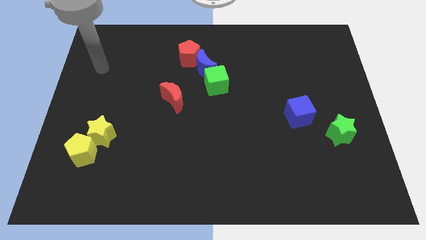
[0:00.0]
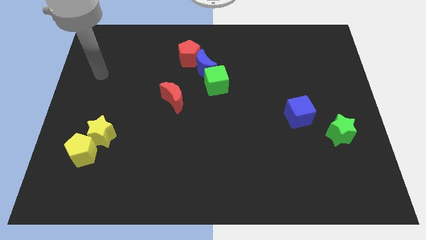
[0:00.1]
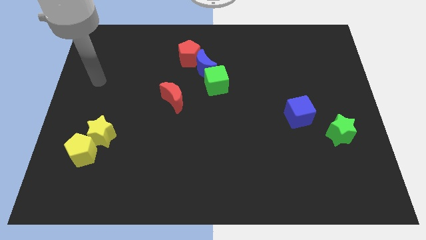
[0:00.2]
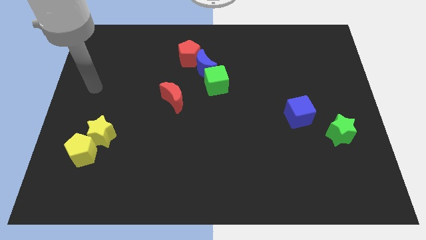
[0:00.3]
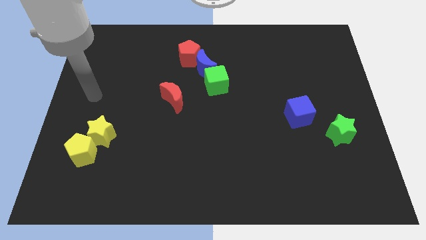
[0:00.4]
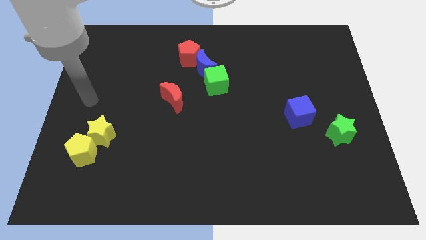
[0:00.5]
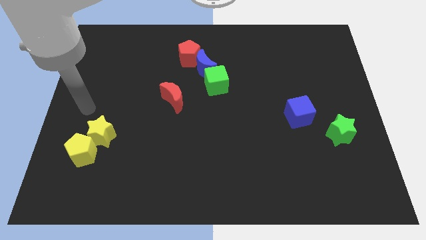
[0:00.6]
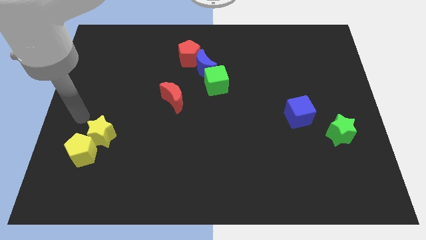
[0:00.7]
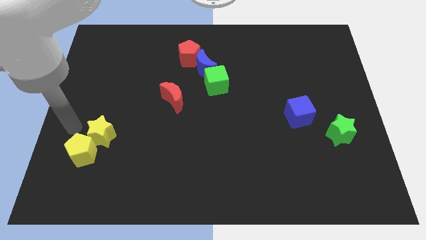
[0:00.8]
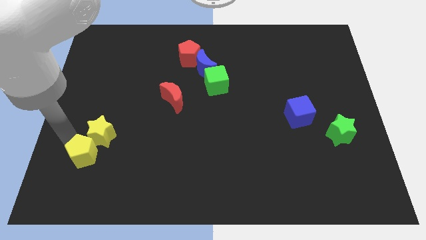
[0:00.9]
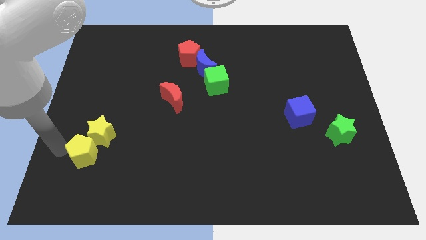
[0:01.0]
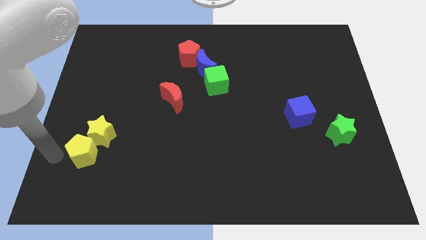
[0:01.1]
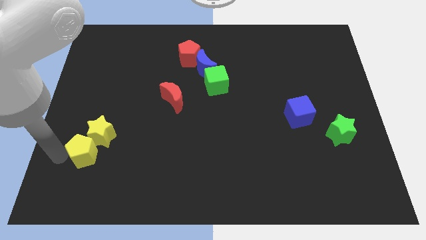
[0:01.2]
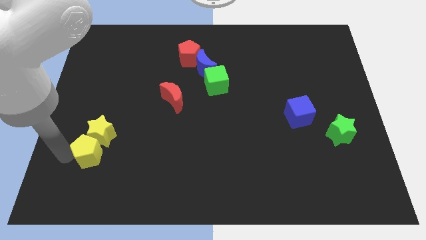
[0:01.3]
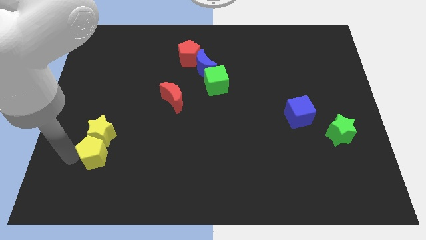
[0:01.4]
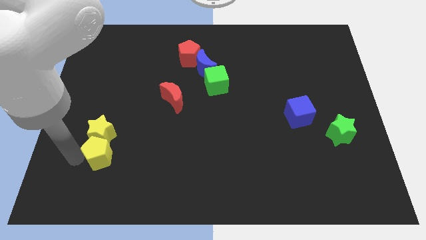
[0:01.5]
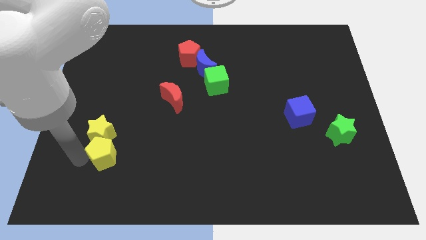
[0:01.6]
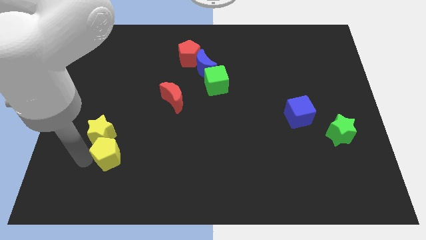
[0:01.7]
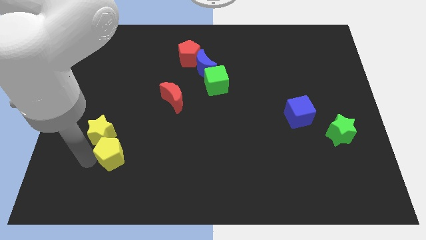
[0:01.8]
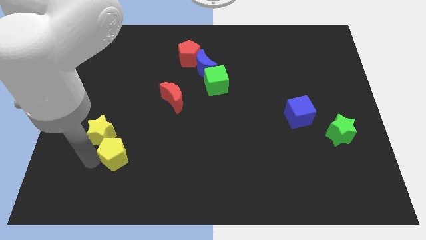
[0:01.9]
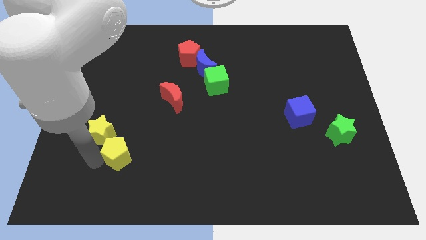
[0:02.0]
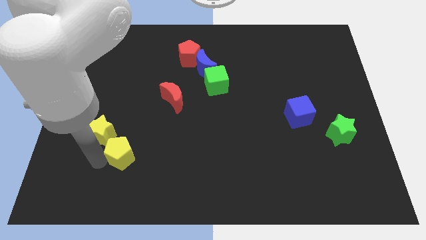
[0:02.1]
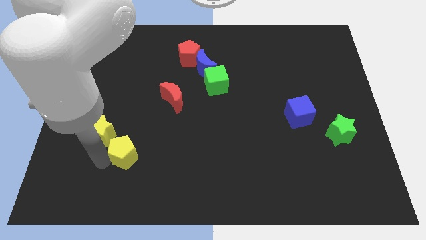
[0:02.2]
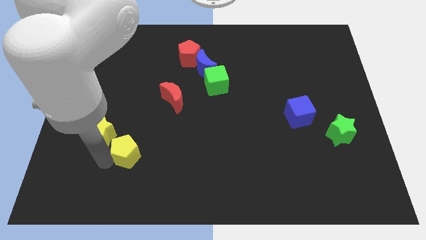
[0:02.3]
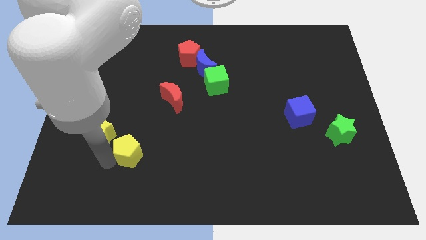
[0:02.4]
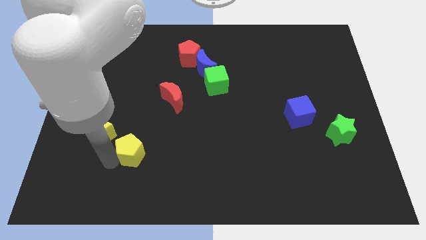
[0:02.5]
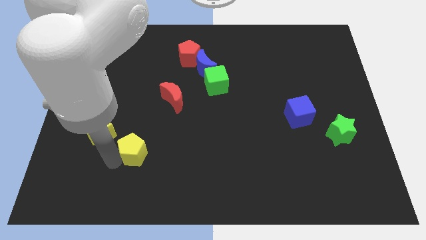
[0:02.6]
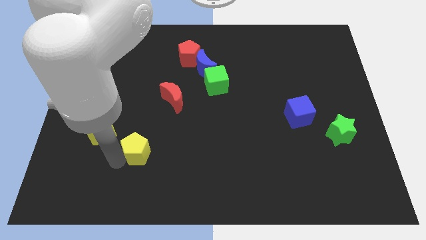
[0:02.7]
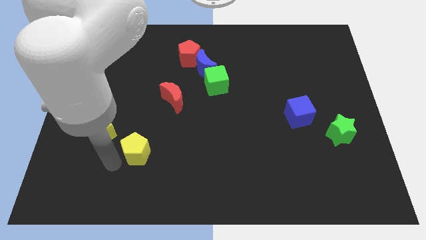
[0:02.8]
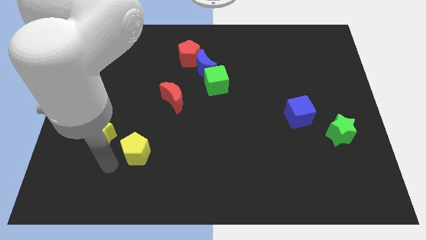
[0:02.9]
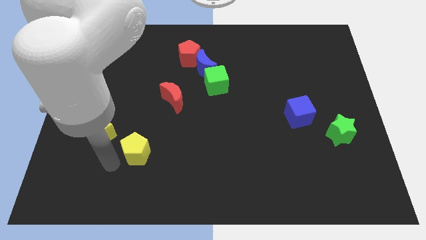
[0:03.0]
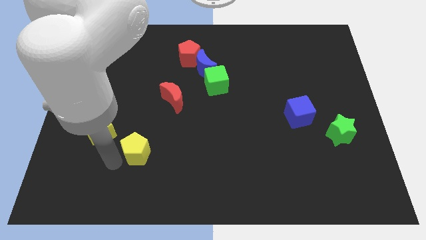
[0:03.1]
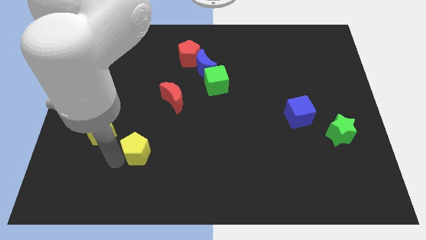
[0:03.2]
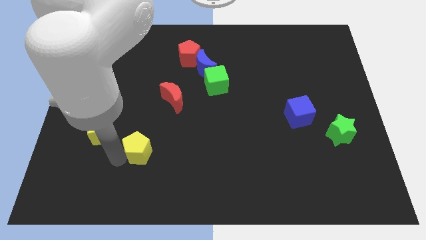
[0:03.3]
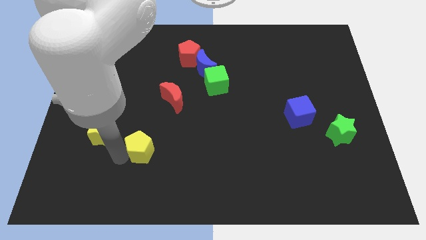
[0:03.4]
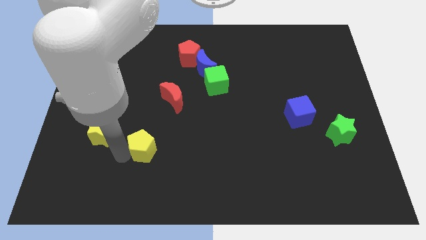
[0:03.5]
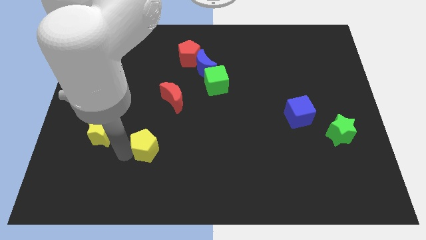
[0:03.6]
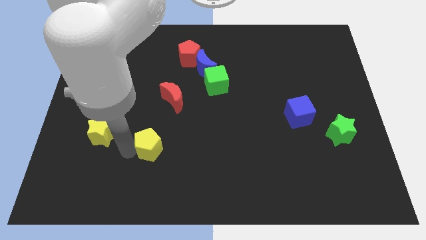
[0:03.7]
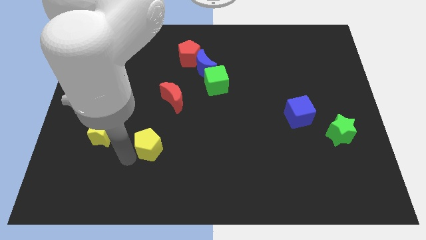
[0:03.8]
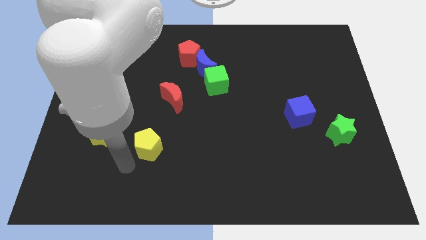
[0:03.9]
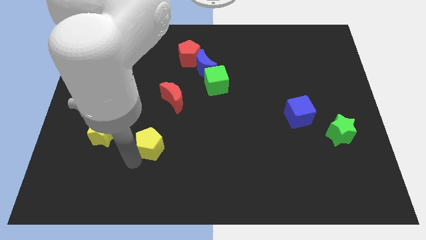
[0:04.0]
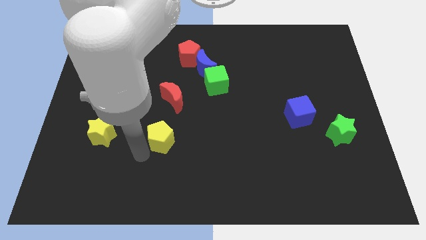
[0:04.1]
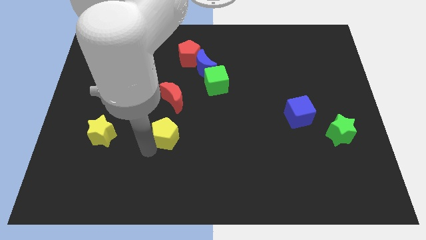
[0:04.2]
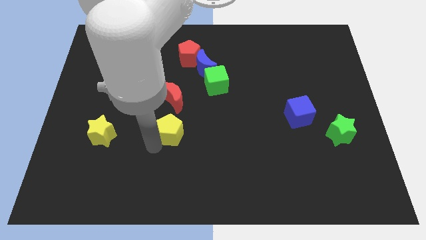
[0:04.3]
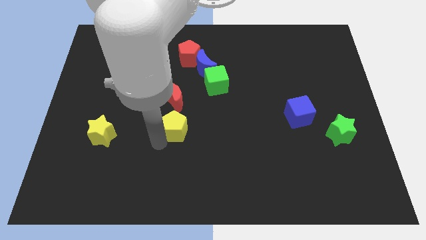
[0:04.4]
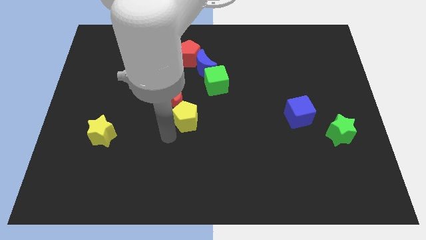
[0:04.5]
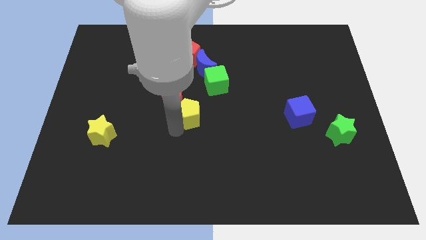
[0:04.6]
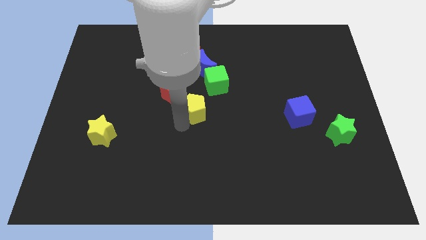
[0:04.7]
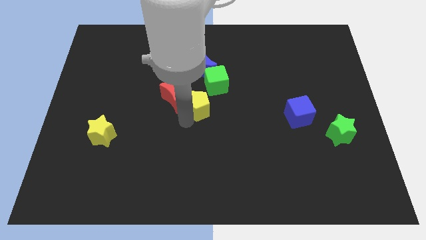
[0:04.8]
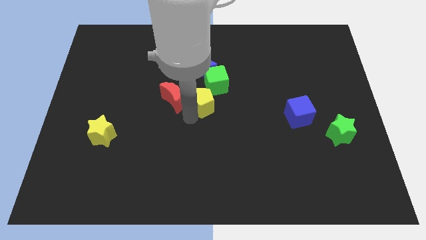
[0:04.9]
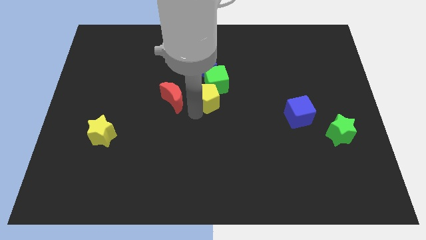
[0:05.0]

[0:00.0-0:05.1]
slide the yellow pentagon to the green cube

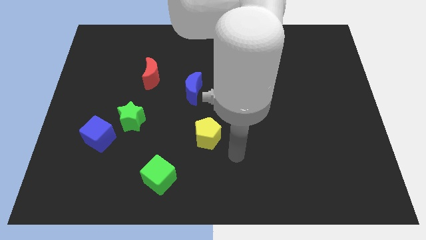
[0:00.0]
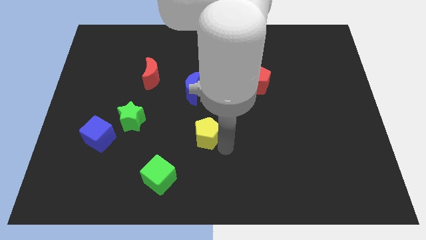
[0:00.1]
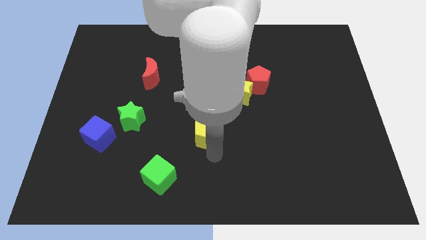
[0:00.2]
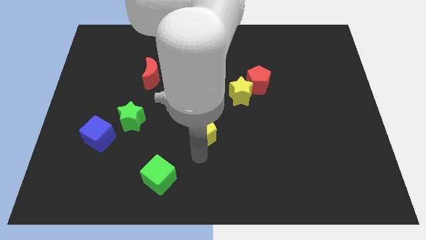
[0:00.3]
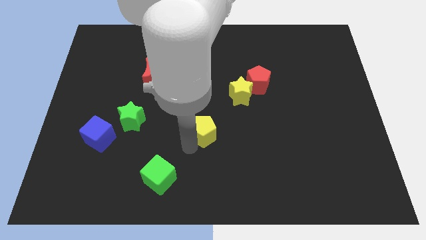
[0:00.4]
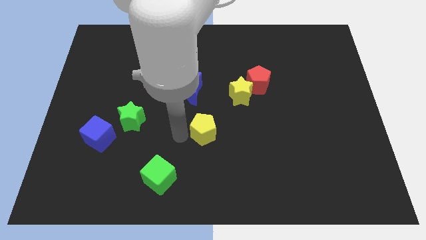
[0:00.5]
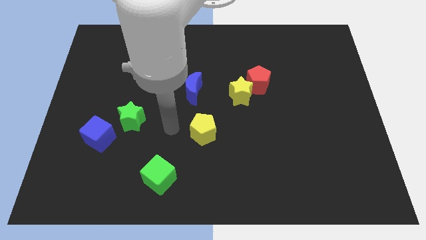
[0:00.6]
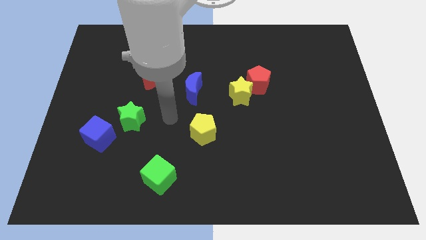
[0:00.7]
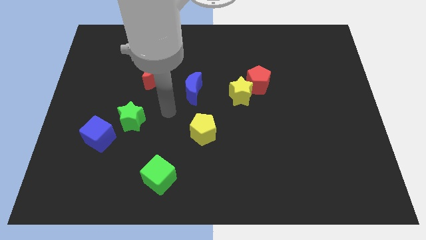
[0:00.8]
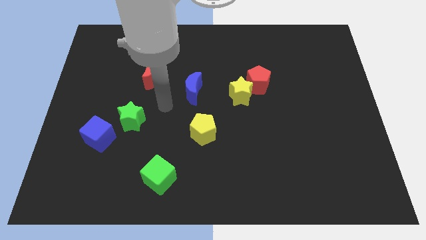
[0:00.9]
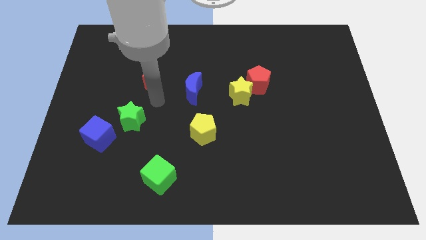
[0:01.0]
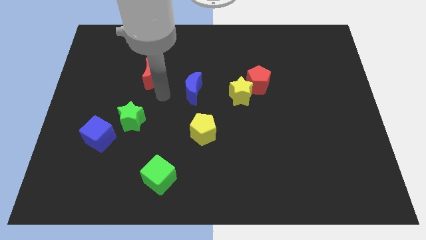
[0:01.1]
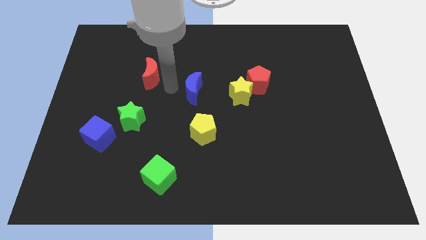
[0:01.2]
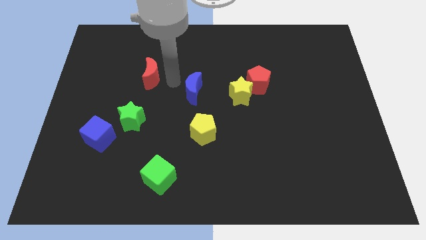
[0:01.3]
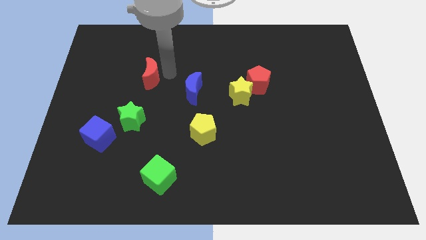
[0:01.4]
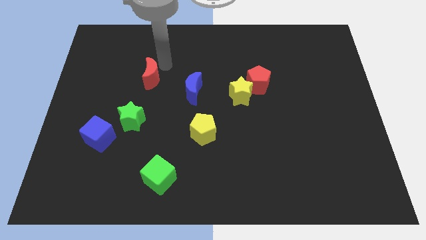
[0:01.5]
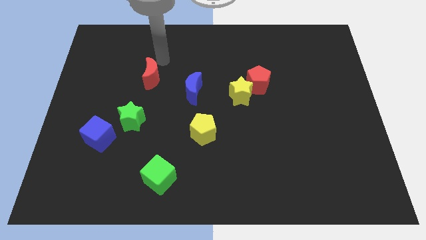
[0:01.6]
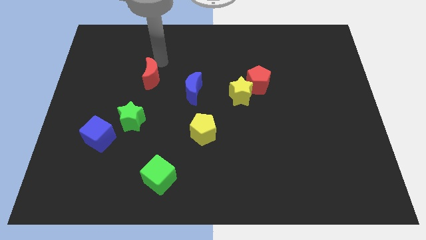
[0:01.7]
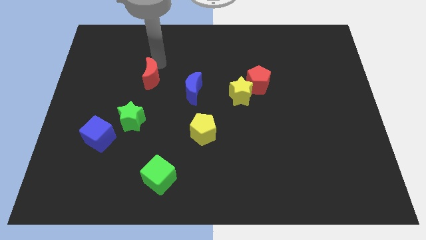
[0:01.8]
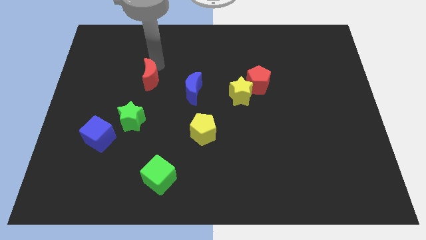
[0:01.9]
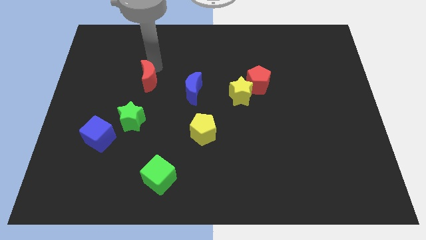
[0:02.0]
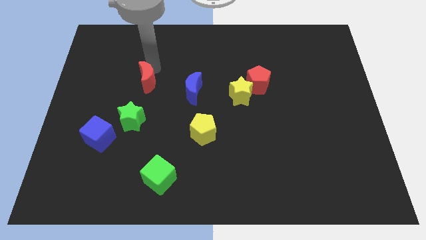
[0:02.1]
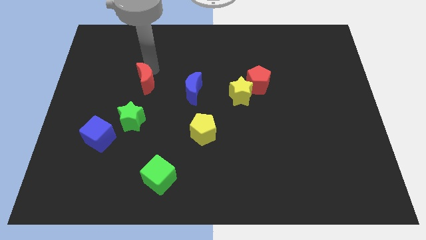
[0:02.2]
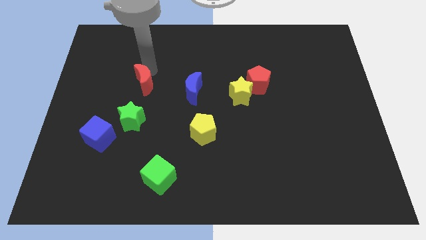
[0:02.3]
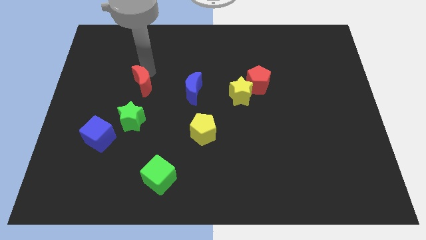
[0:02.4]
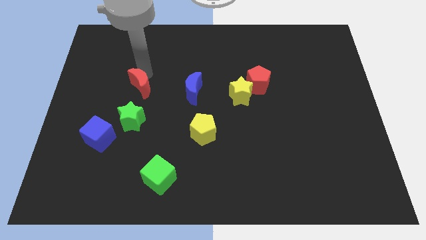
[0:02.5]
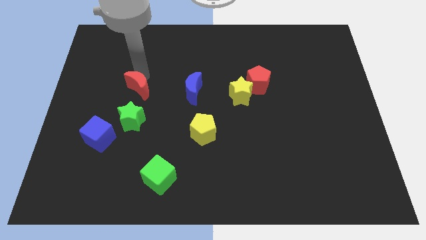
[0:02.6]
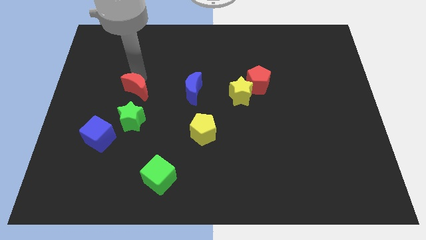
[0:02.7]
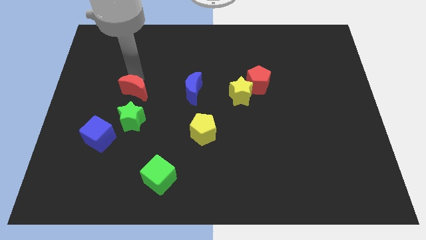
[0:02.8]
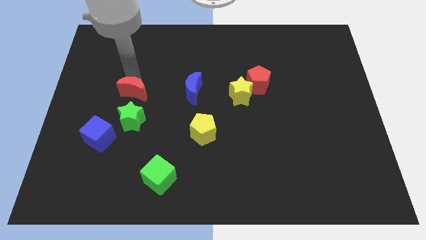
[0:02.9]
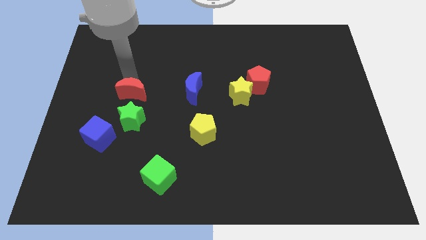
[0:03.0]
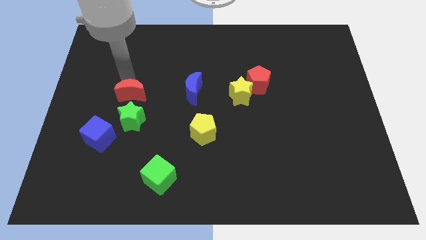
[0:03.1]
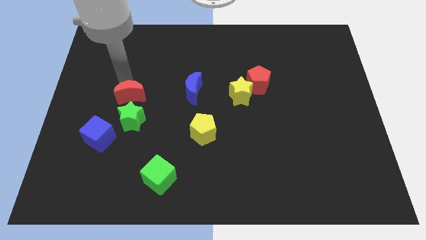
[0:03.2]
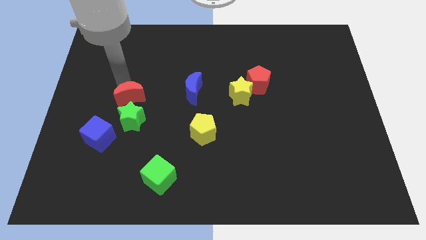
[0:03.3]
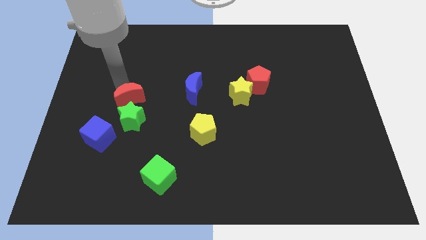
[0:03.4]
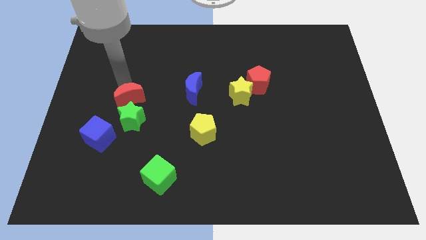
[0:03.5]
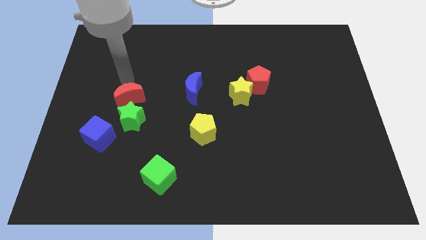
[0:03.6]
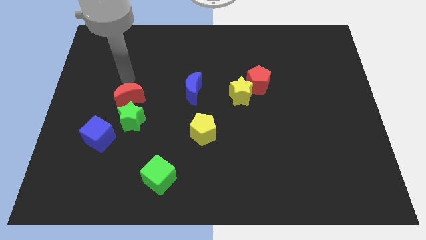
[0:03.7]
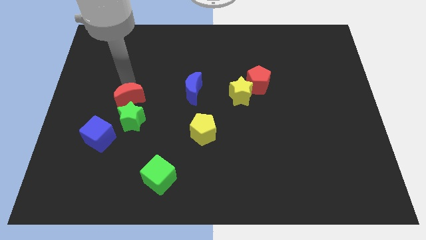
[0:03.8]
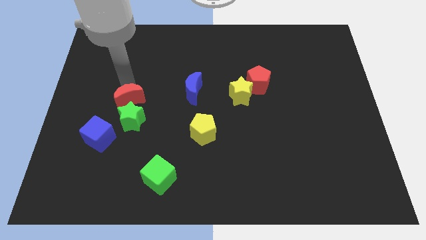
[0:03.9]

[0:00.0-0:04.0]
put the red moon towards the green star
